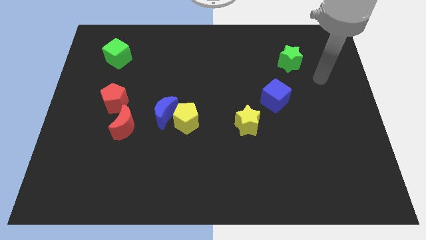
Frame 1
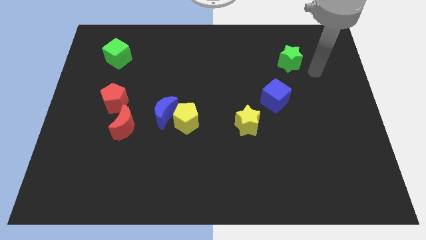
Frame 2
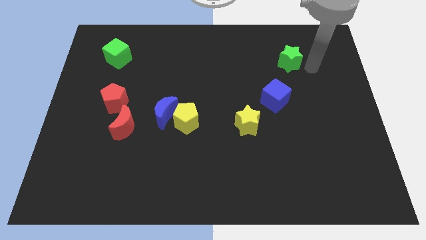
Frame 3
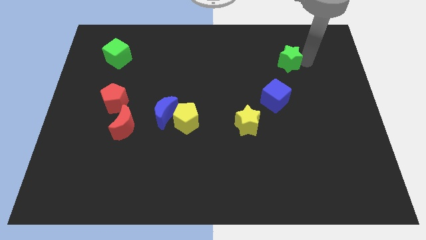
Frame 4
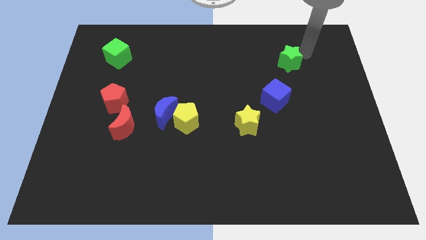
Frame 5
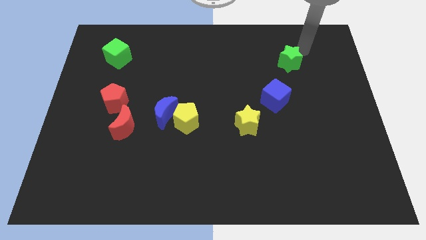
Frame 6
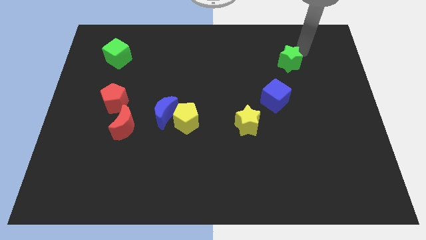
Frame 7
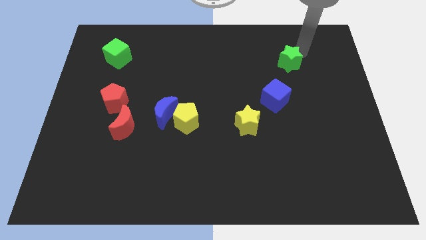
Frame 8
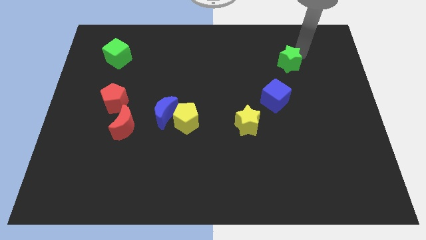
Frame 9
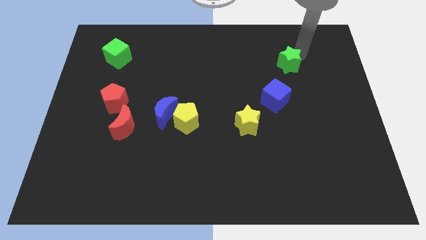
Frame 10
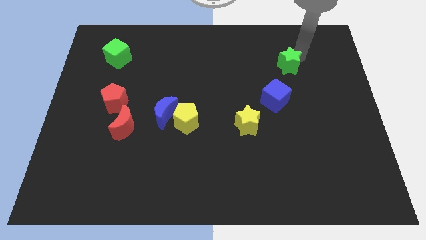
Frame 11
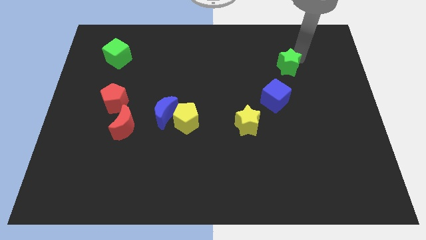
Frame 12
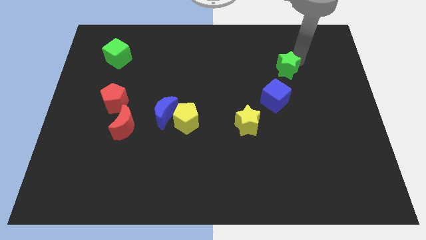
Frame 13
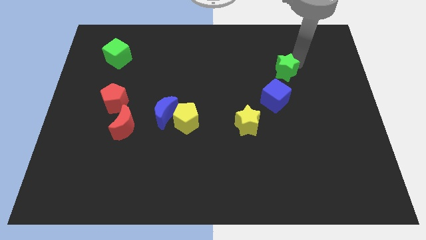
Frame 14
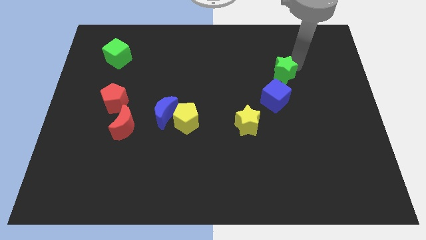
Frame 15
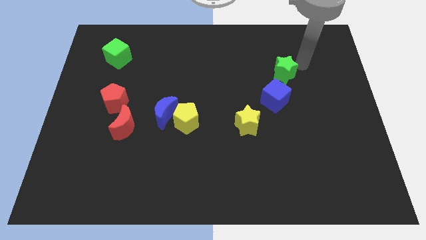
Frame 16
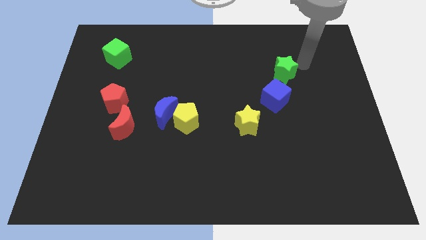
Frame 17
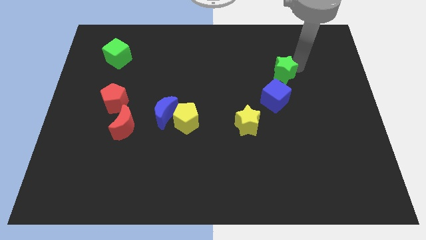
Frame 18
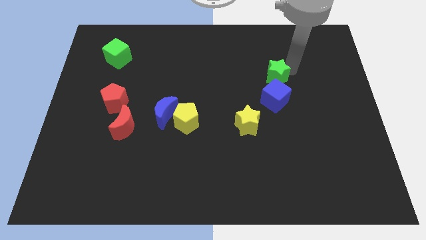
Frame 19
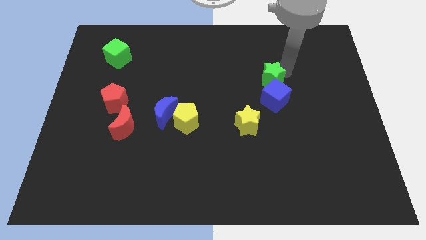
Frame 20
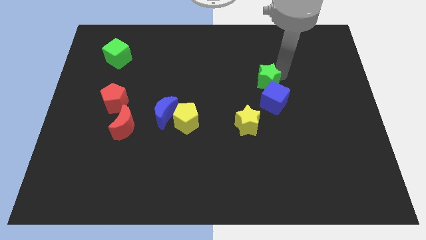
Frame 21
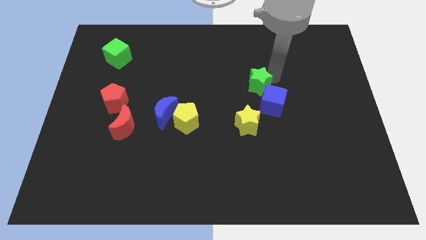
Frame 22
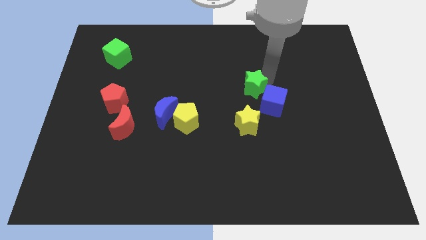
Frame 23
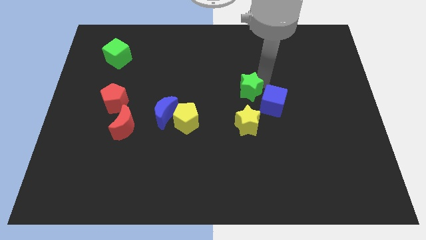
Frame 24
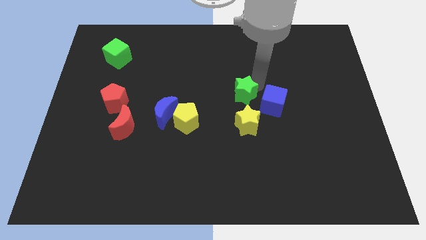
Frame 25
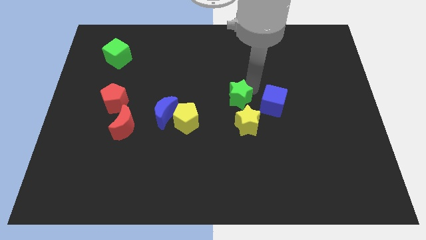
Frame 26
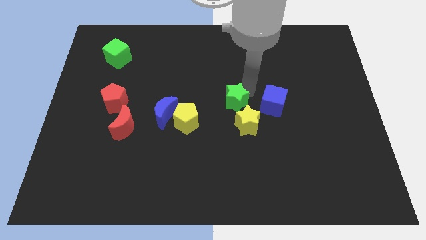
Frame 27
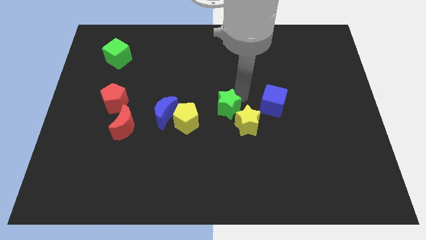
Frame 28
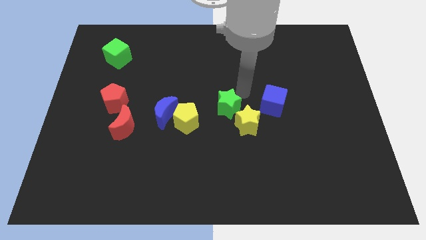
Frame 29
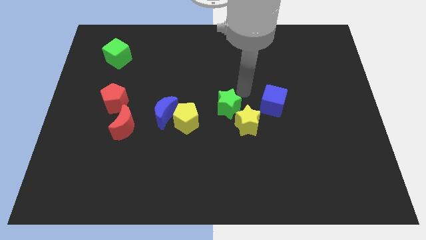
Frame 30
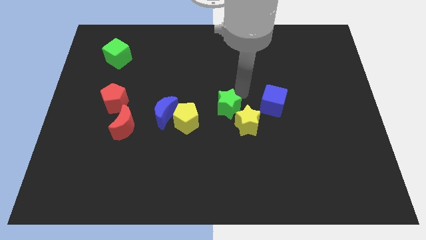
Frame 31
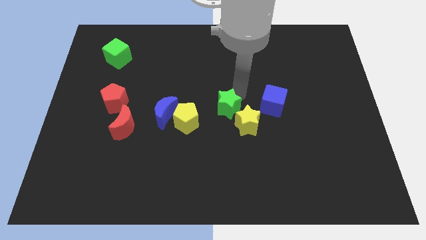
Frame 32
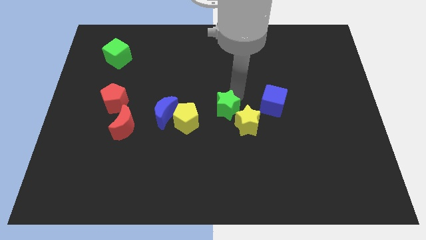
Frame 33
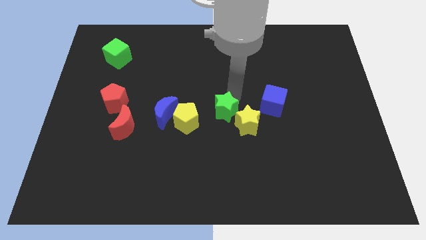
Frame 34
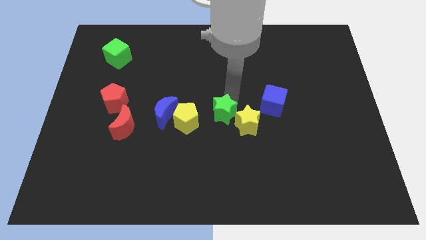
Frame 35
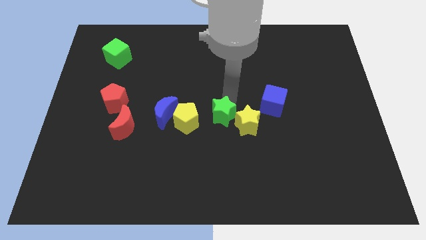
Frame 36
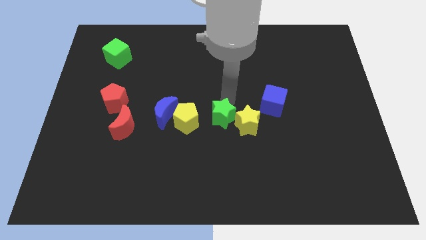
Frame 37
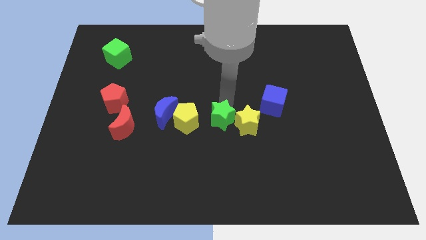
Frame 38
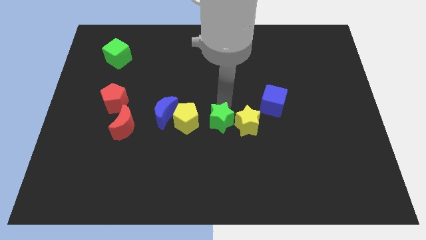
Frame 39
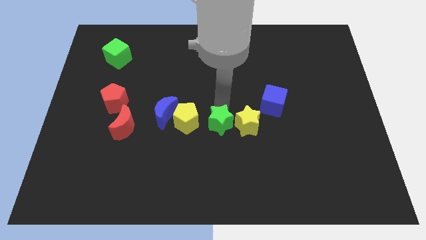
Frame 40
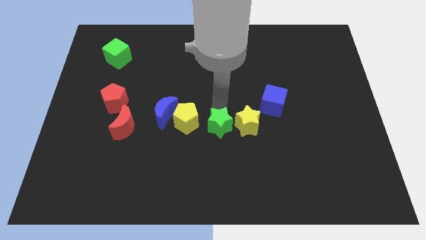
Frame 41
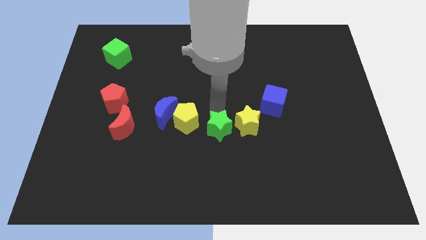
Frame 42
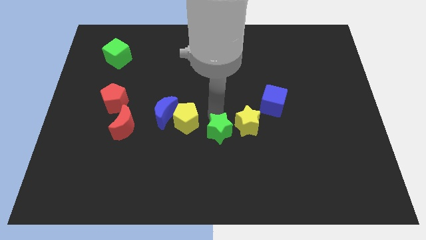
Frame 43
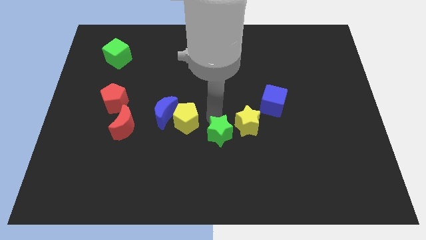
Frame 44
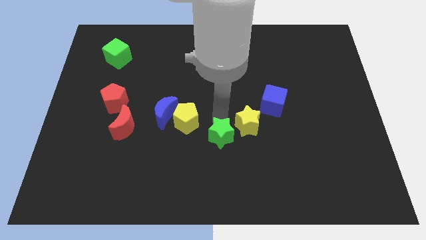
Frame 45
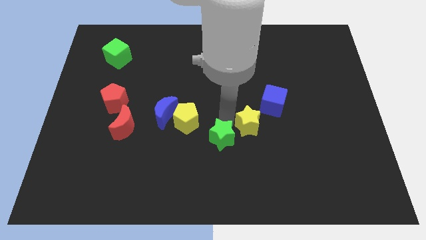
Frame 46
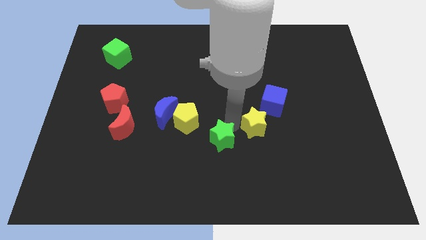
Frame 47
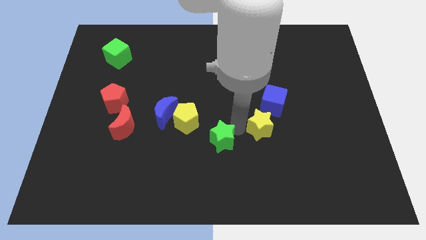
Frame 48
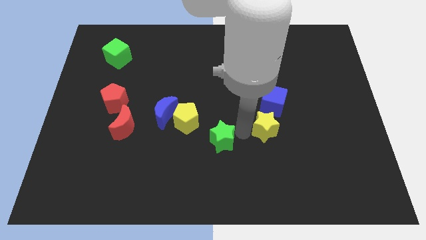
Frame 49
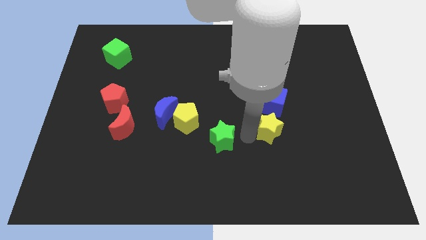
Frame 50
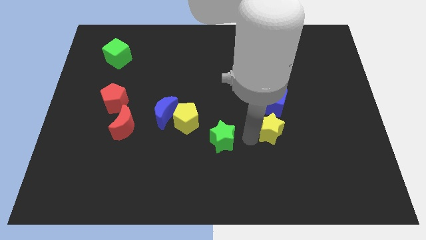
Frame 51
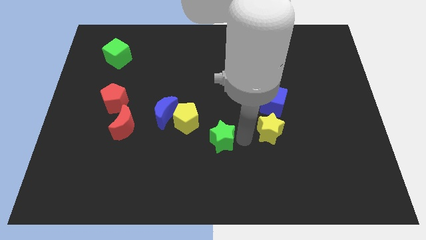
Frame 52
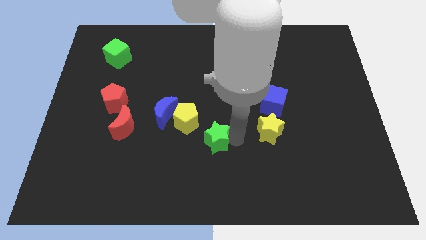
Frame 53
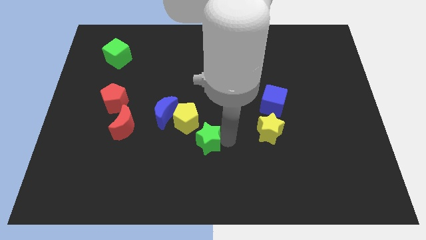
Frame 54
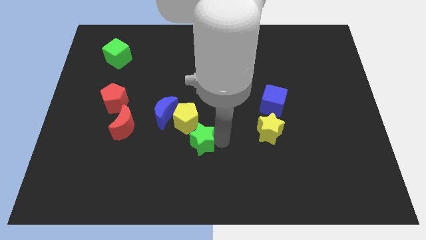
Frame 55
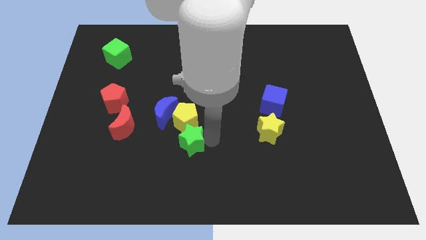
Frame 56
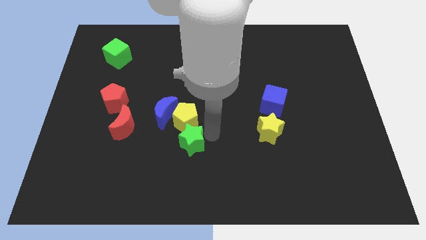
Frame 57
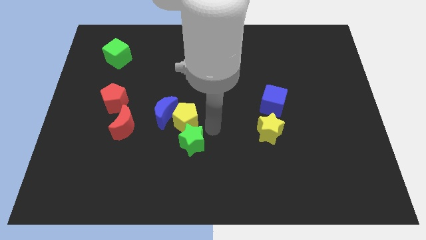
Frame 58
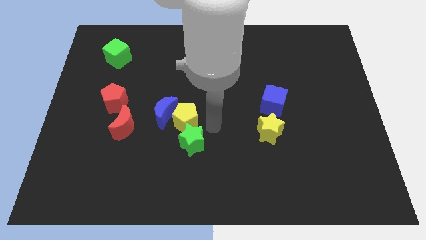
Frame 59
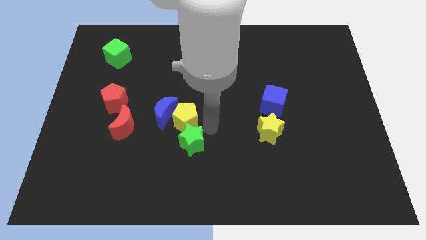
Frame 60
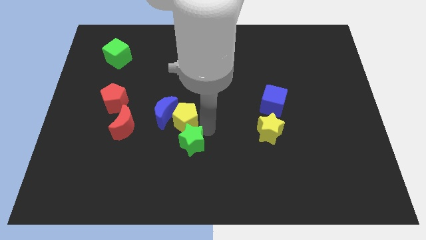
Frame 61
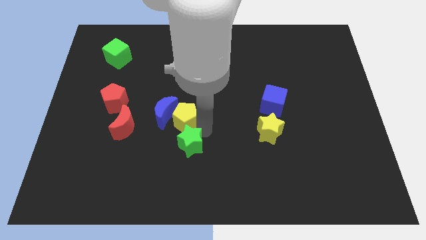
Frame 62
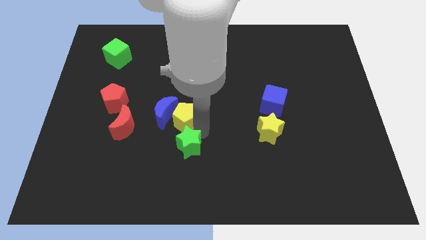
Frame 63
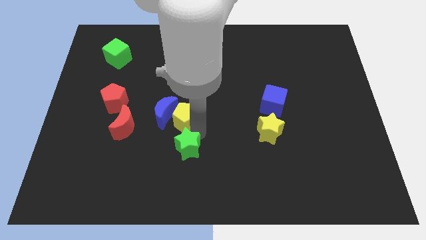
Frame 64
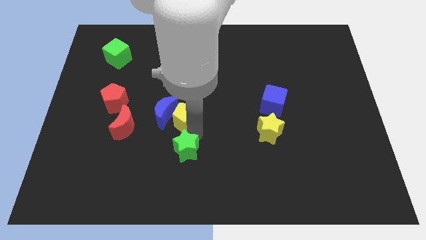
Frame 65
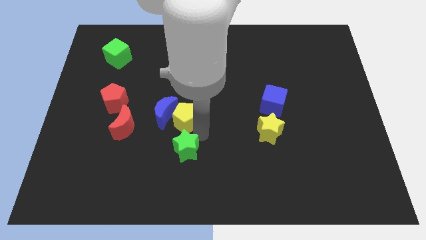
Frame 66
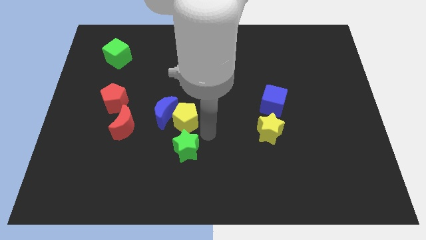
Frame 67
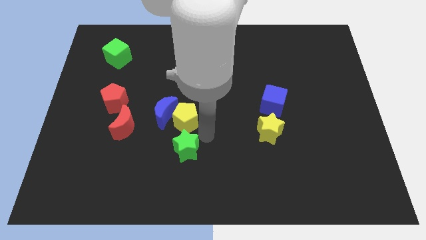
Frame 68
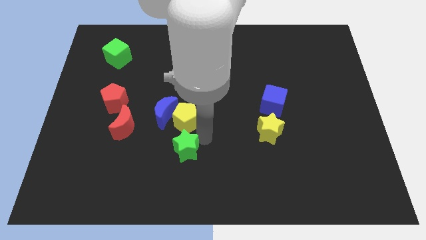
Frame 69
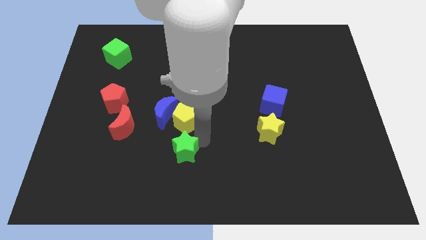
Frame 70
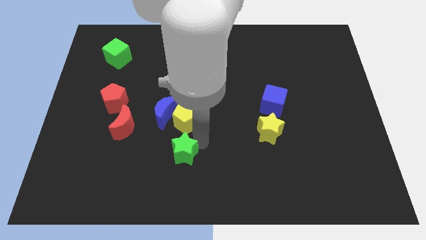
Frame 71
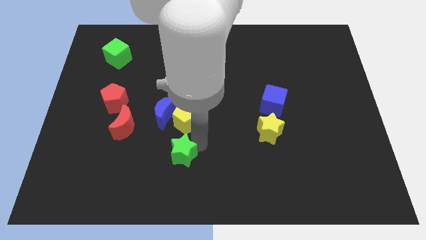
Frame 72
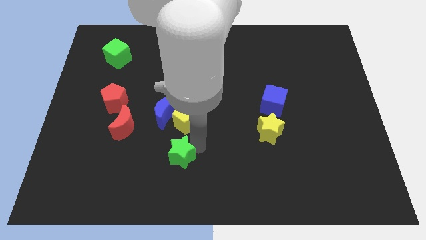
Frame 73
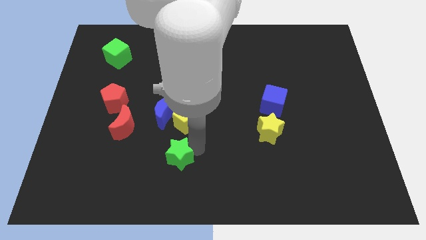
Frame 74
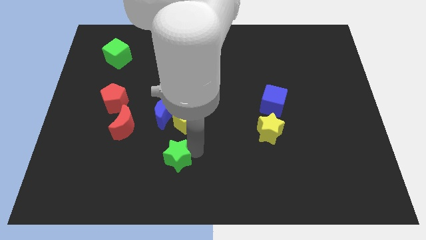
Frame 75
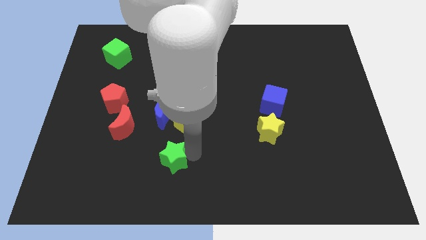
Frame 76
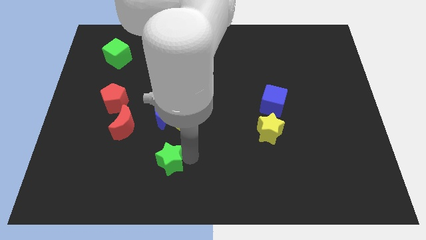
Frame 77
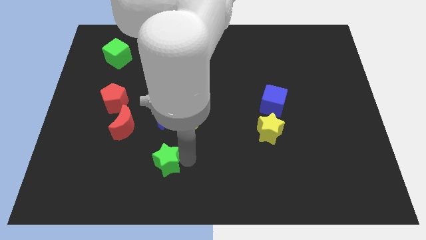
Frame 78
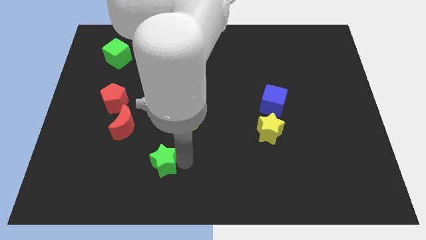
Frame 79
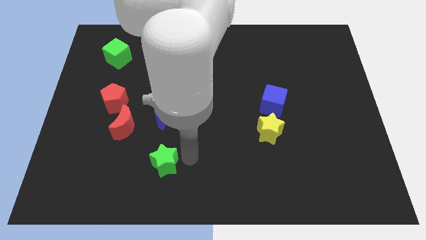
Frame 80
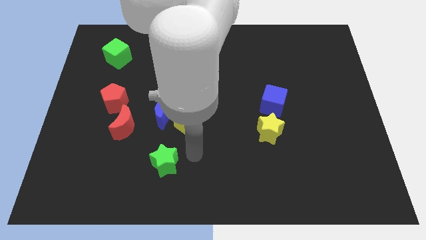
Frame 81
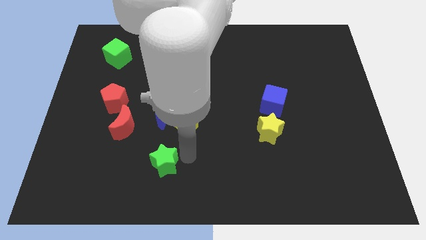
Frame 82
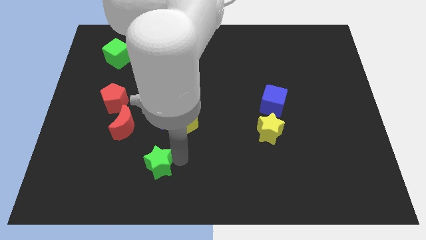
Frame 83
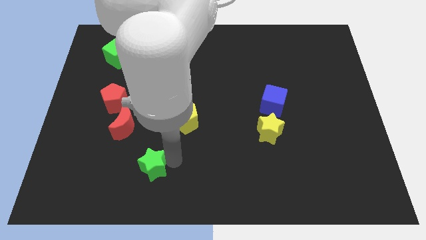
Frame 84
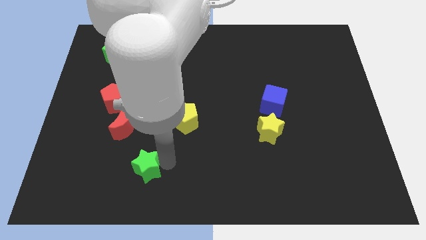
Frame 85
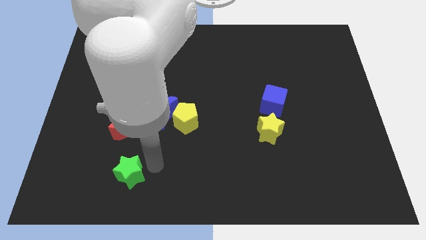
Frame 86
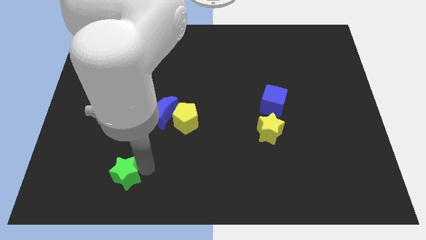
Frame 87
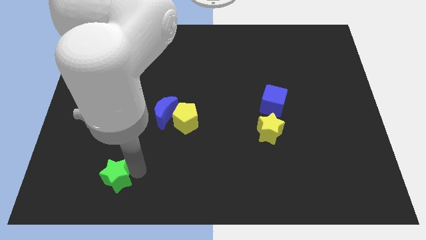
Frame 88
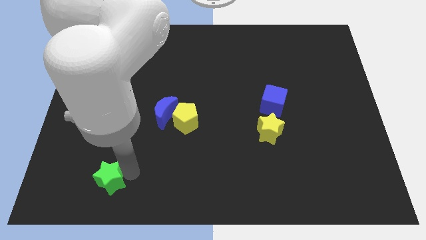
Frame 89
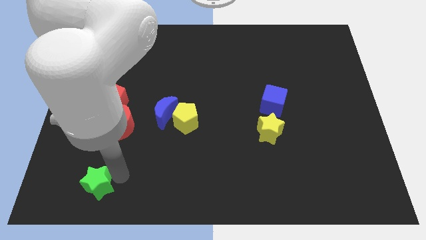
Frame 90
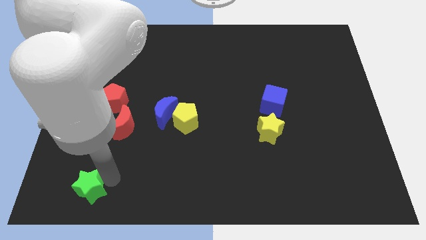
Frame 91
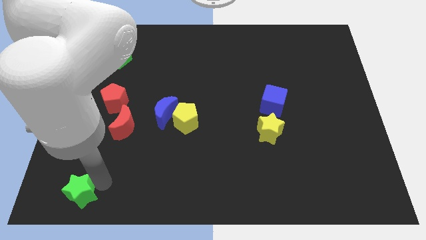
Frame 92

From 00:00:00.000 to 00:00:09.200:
put the green star to the bottom left corner
